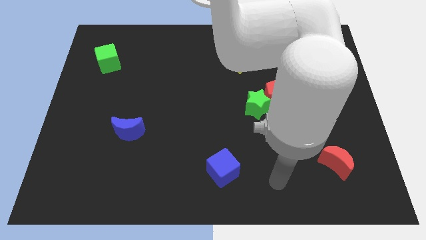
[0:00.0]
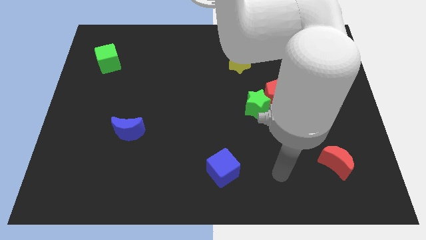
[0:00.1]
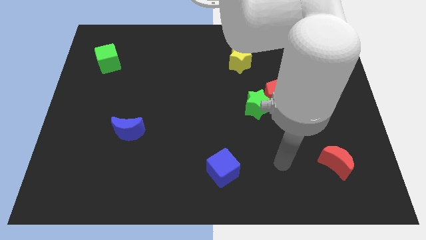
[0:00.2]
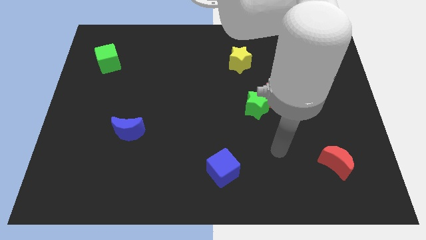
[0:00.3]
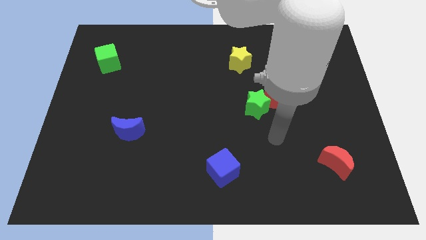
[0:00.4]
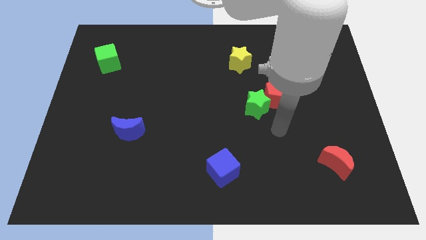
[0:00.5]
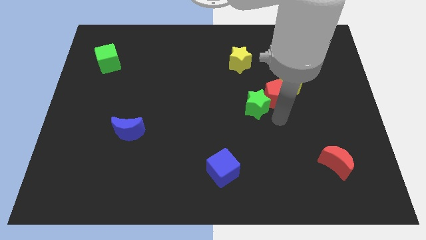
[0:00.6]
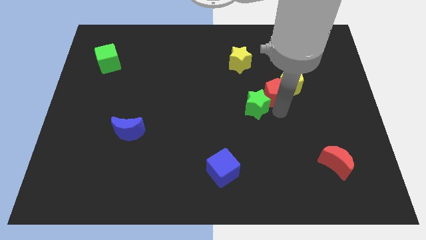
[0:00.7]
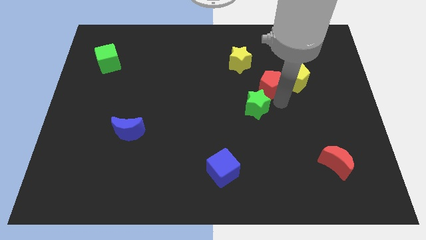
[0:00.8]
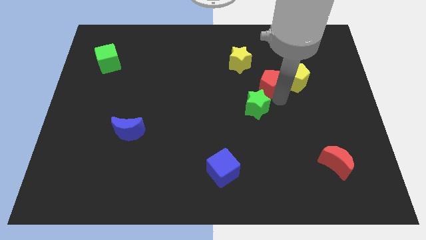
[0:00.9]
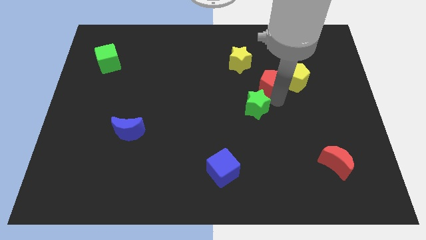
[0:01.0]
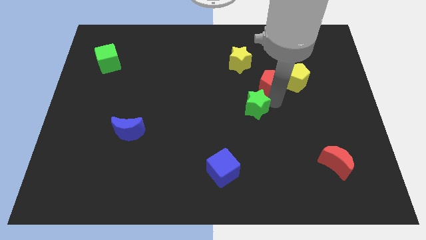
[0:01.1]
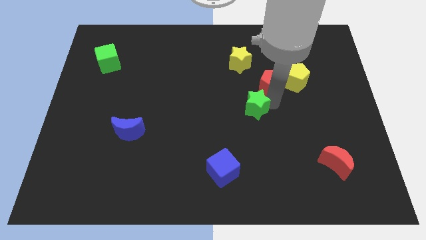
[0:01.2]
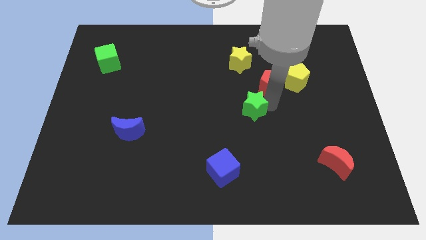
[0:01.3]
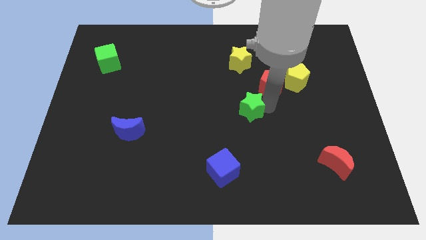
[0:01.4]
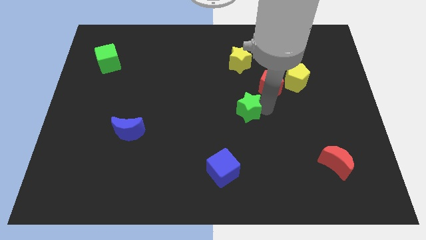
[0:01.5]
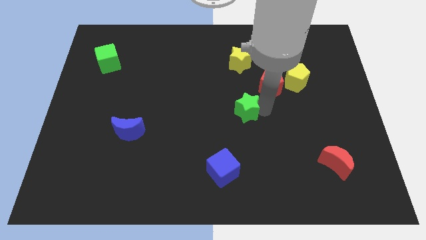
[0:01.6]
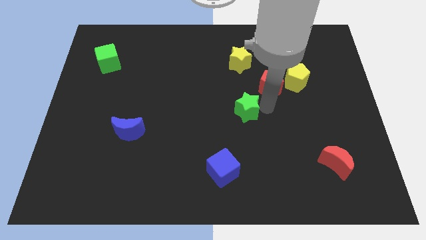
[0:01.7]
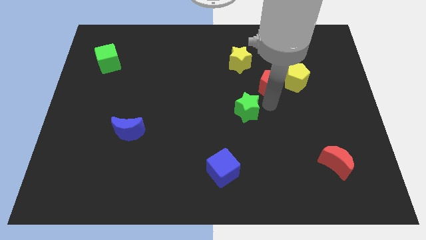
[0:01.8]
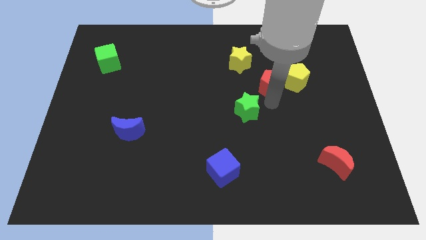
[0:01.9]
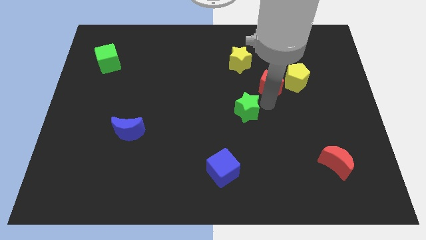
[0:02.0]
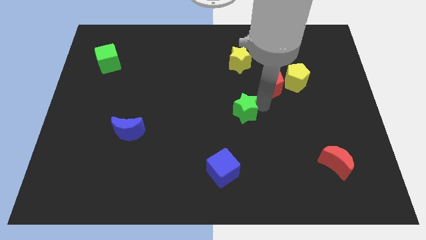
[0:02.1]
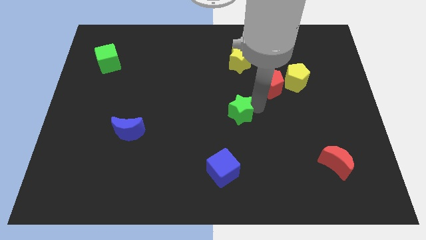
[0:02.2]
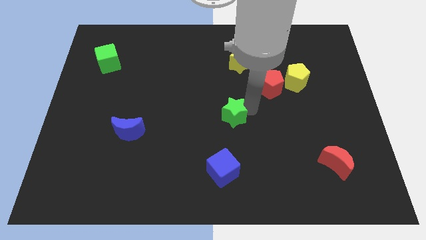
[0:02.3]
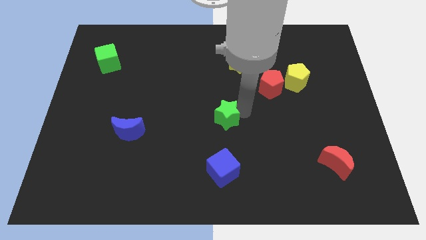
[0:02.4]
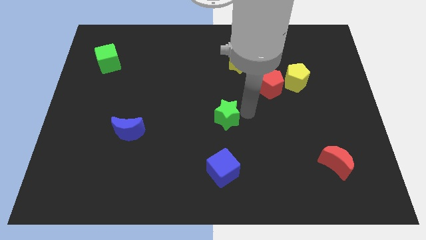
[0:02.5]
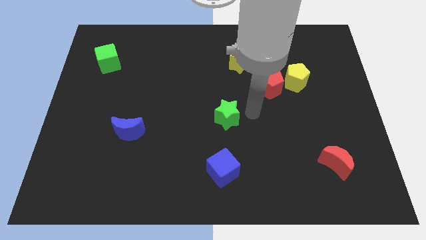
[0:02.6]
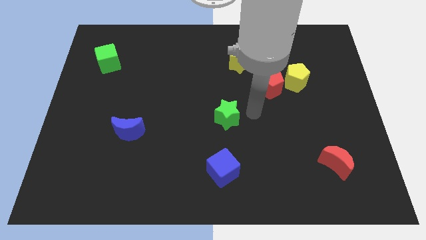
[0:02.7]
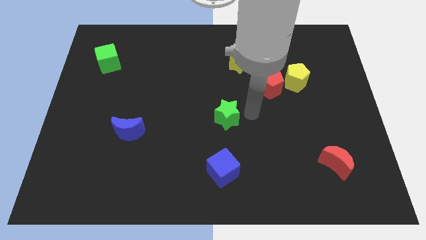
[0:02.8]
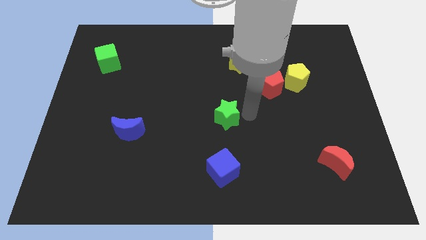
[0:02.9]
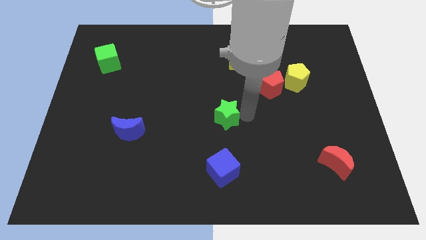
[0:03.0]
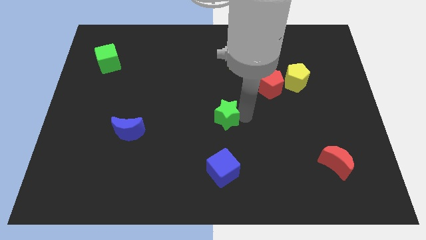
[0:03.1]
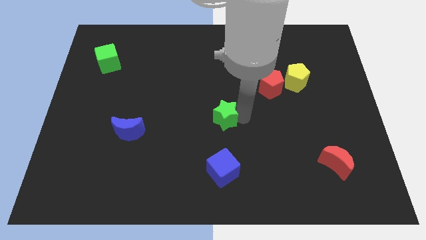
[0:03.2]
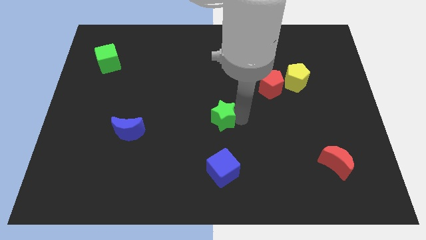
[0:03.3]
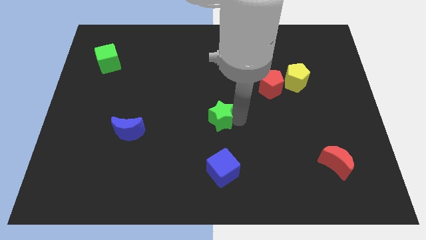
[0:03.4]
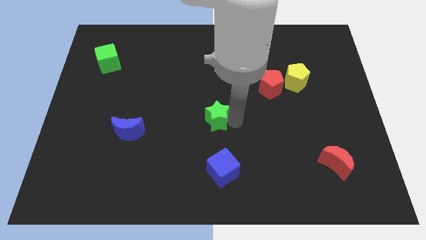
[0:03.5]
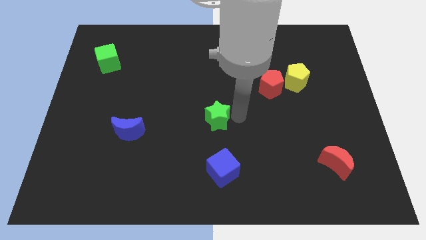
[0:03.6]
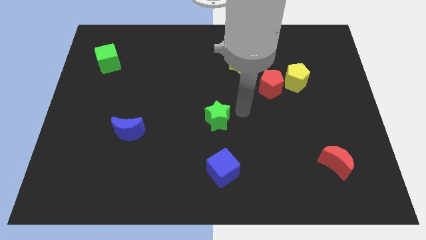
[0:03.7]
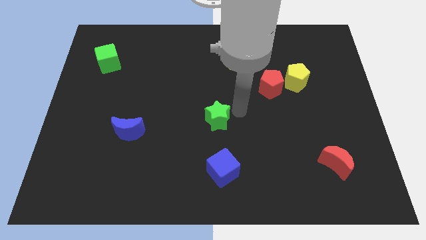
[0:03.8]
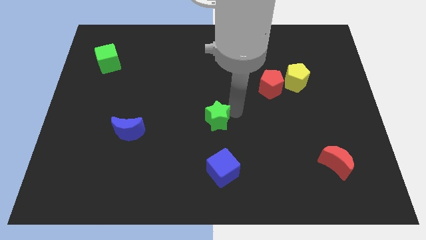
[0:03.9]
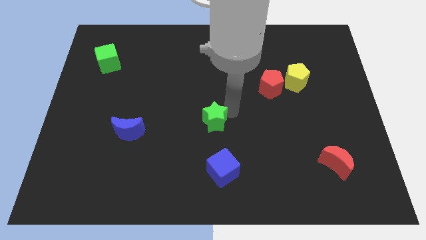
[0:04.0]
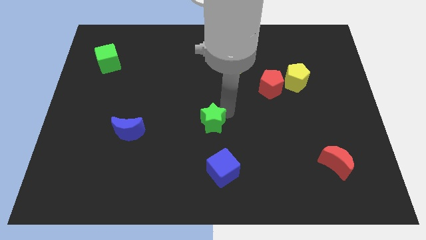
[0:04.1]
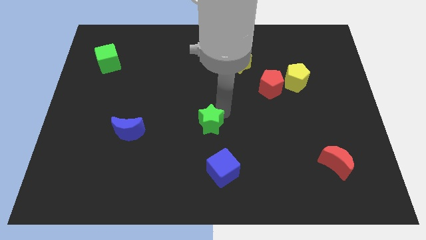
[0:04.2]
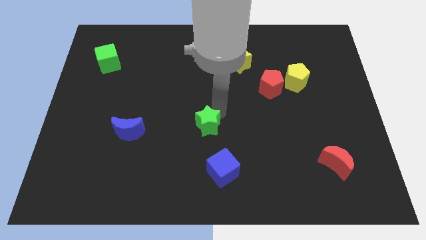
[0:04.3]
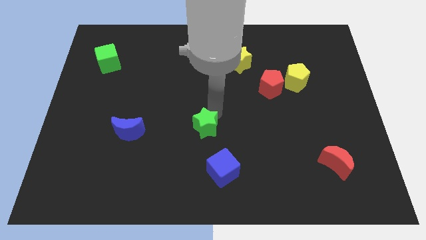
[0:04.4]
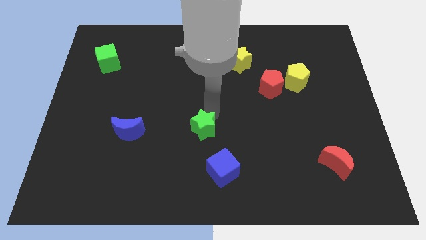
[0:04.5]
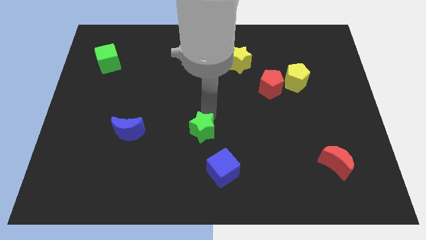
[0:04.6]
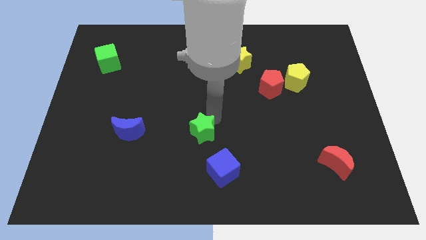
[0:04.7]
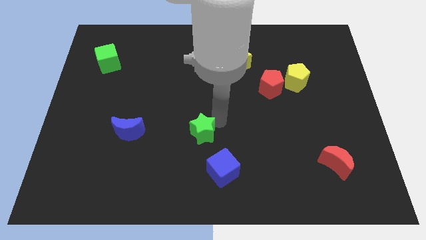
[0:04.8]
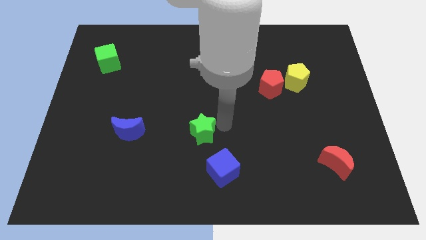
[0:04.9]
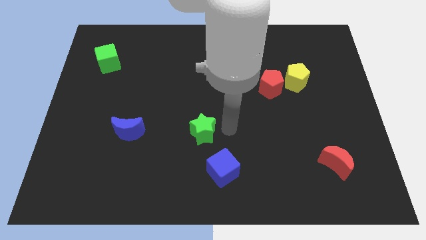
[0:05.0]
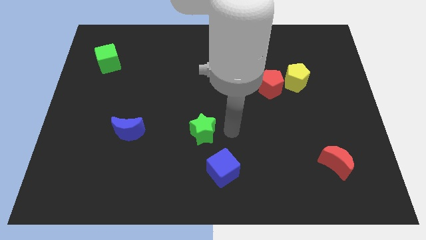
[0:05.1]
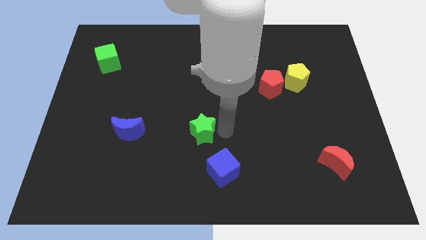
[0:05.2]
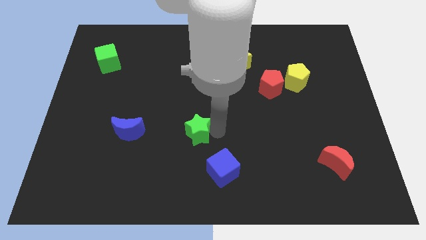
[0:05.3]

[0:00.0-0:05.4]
slide the green star to the right side of the blue moon

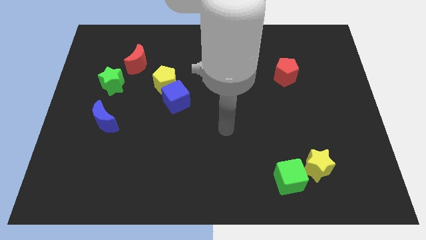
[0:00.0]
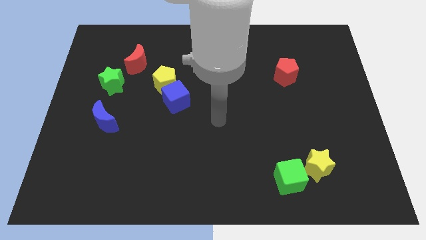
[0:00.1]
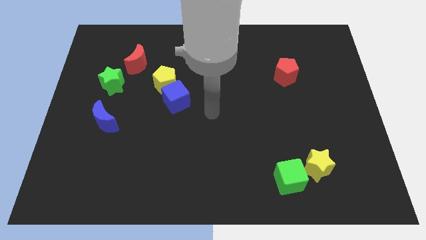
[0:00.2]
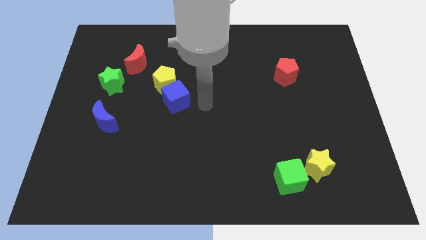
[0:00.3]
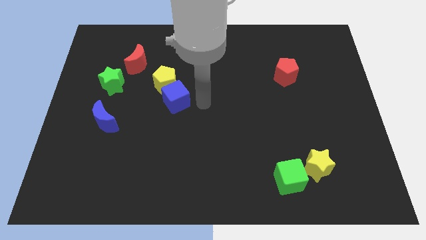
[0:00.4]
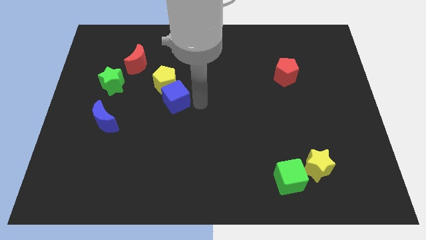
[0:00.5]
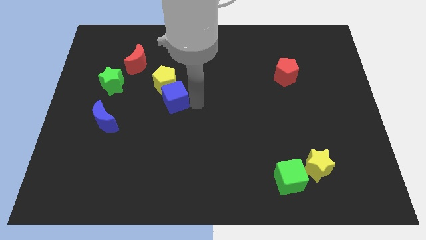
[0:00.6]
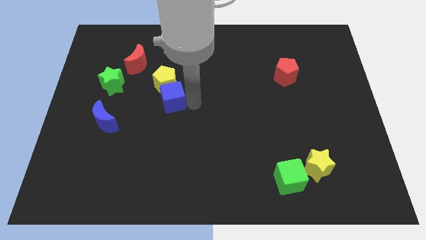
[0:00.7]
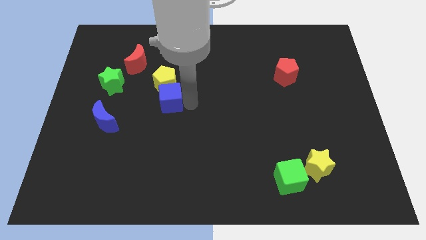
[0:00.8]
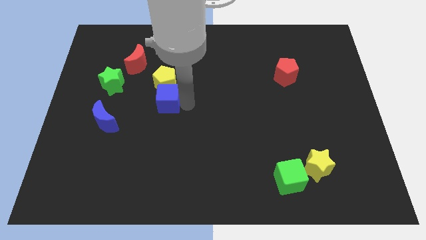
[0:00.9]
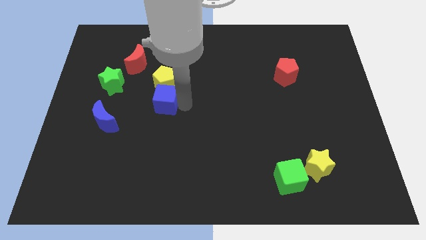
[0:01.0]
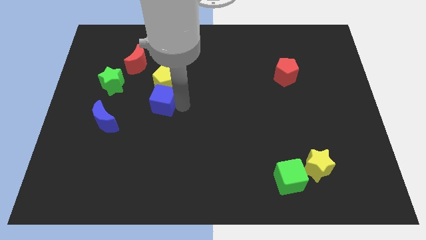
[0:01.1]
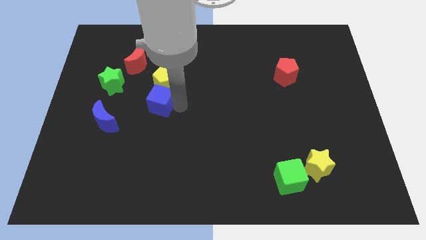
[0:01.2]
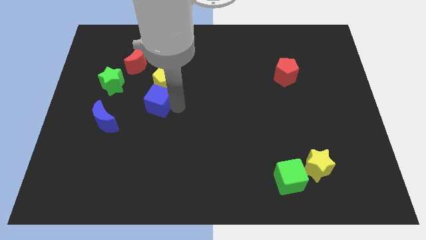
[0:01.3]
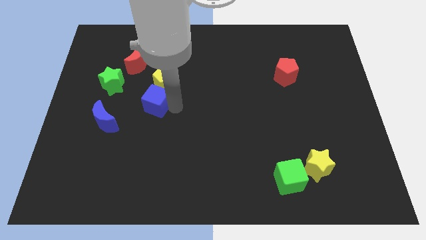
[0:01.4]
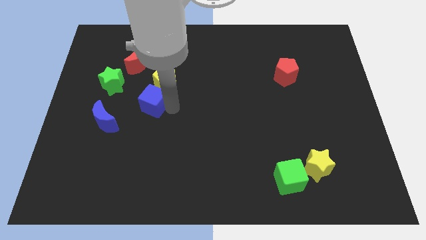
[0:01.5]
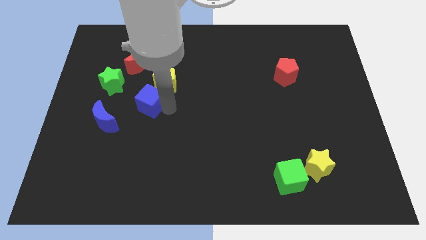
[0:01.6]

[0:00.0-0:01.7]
push the blue cube below the red moon

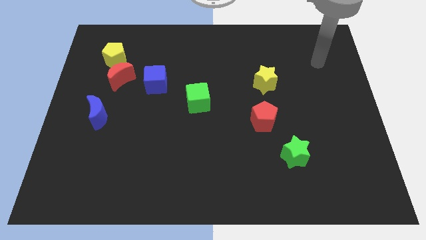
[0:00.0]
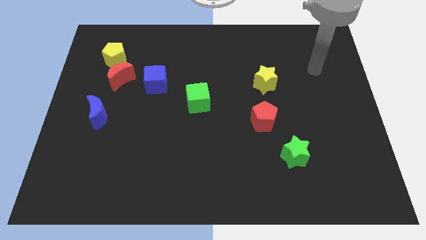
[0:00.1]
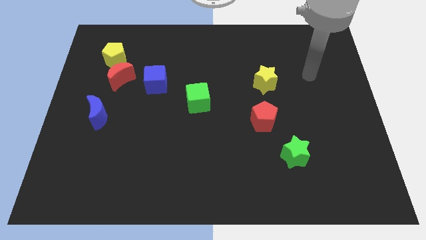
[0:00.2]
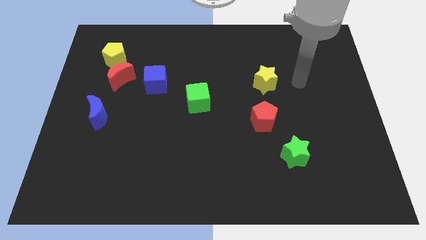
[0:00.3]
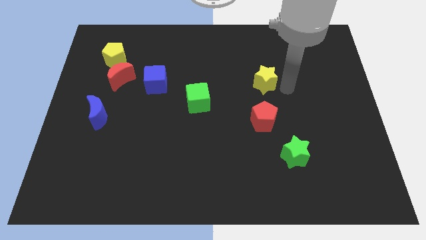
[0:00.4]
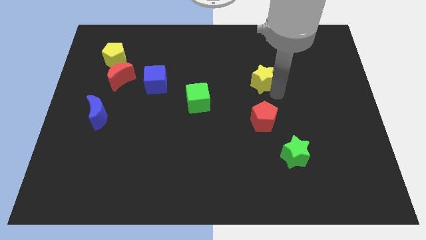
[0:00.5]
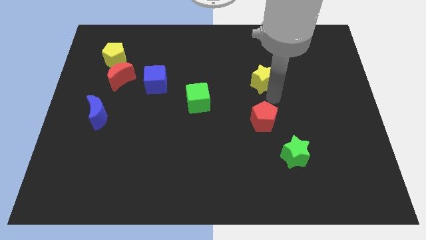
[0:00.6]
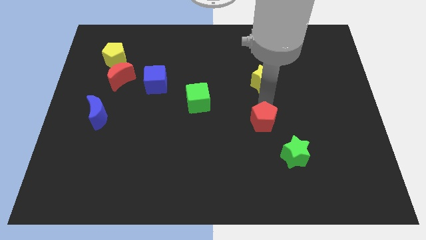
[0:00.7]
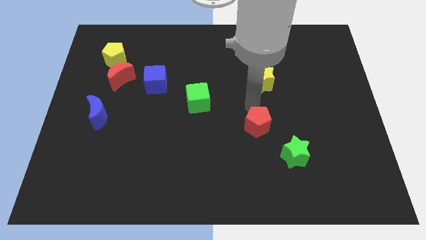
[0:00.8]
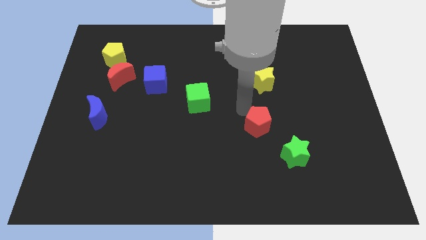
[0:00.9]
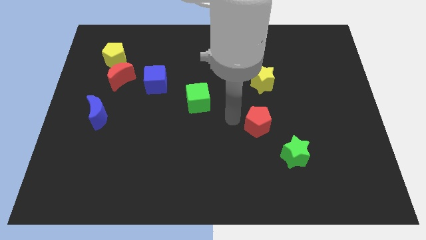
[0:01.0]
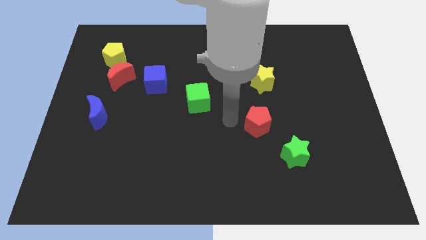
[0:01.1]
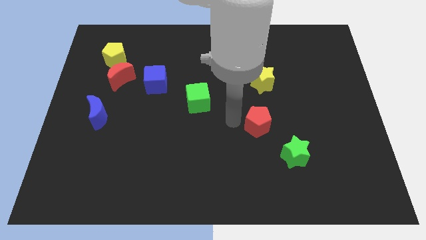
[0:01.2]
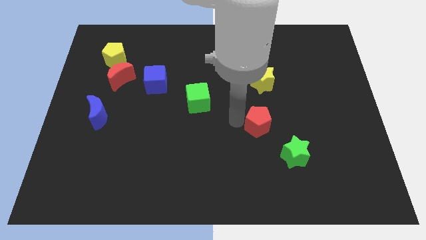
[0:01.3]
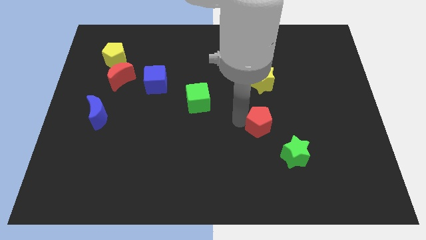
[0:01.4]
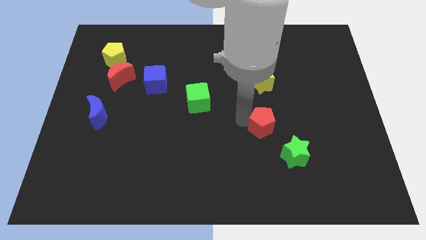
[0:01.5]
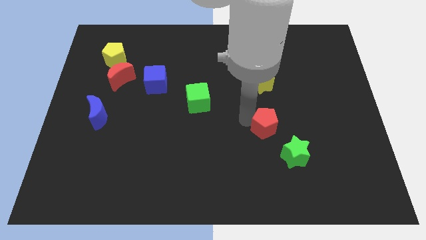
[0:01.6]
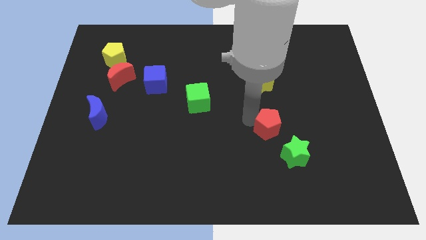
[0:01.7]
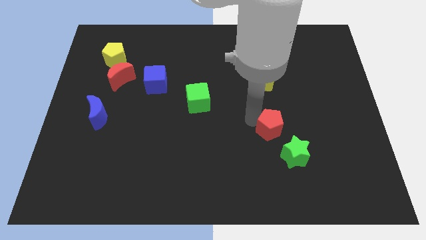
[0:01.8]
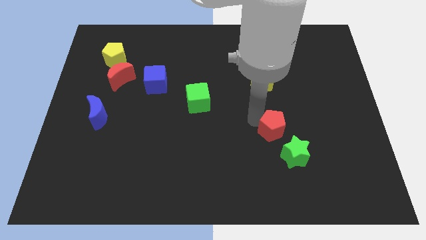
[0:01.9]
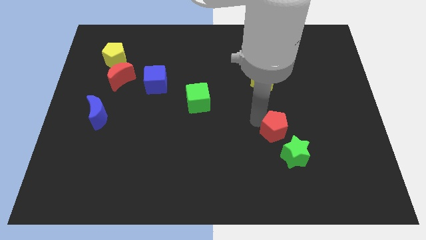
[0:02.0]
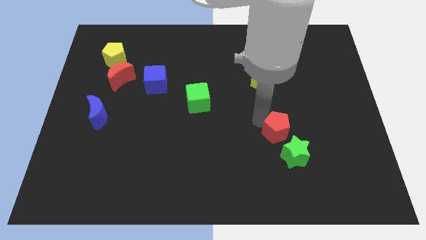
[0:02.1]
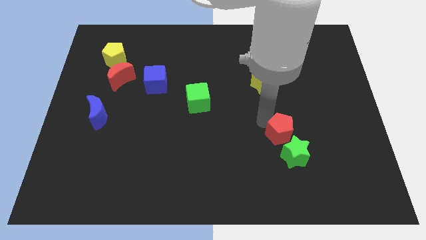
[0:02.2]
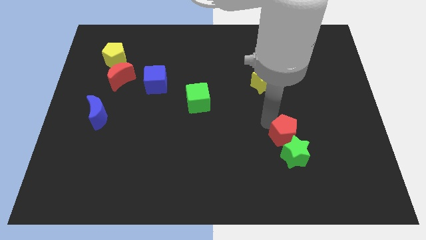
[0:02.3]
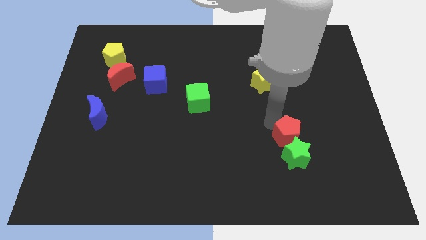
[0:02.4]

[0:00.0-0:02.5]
push the red pentagon diagonally up and to the right of the green star
